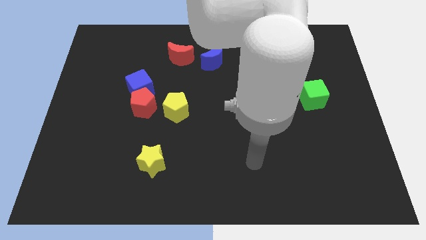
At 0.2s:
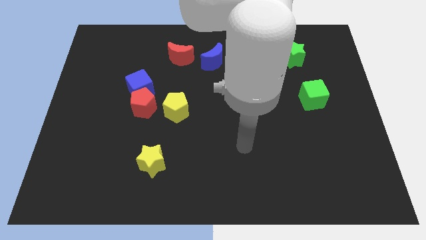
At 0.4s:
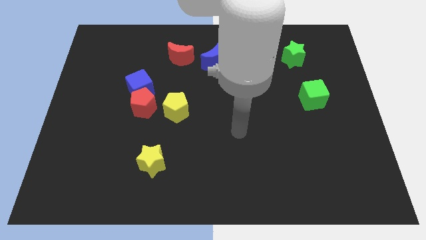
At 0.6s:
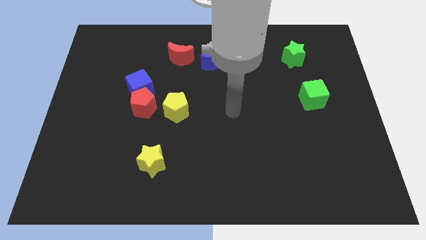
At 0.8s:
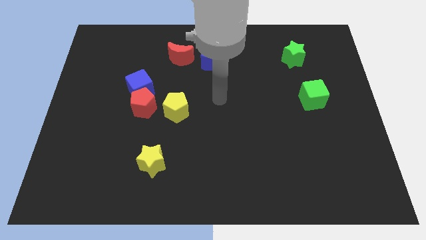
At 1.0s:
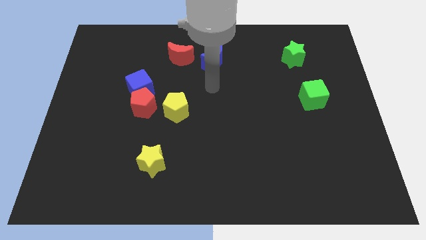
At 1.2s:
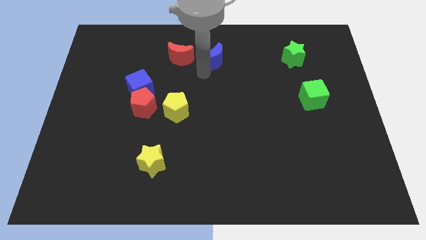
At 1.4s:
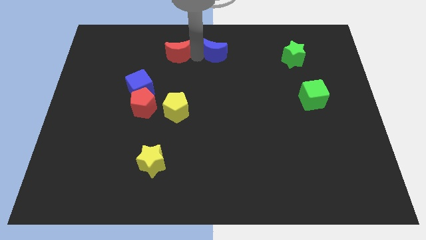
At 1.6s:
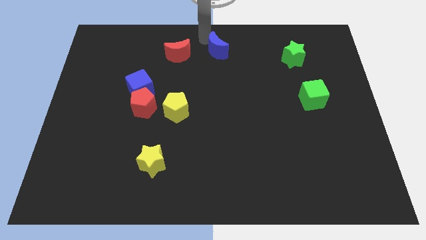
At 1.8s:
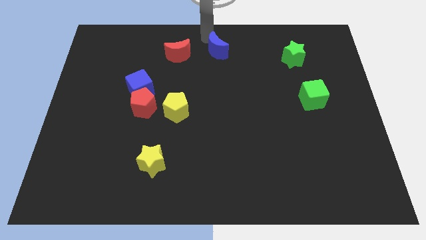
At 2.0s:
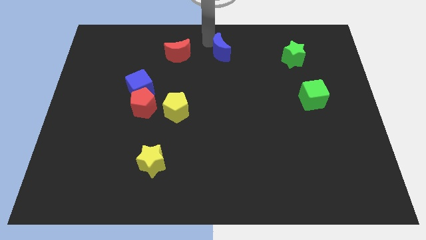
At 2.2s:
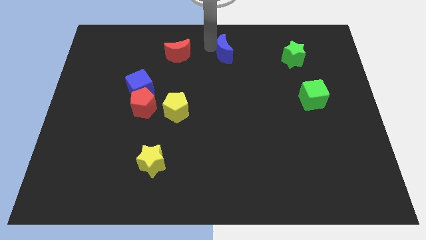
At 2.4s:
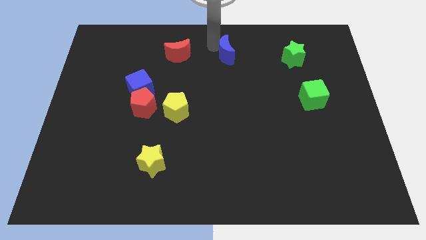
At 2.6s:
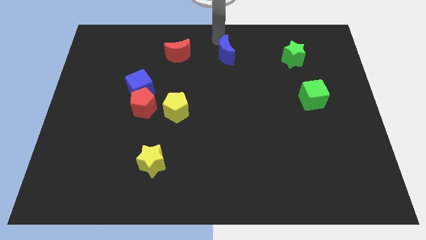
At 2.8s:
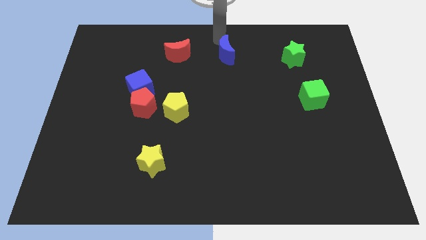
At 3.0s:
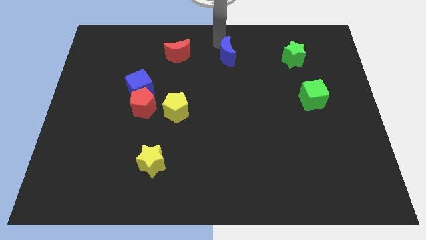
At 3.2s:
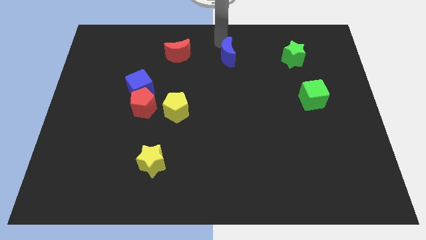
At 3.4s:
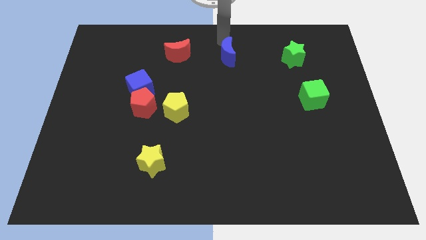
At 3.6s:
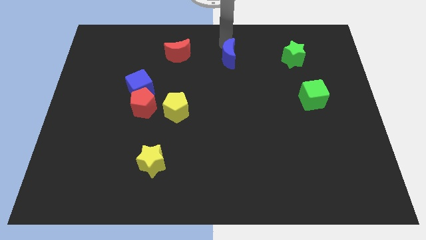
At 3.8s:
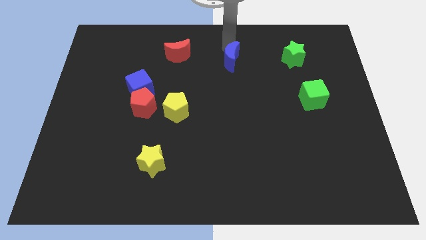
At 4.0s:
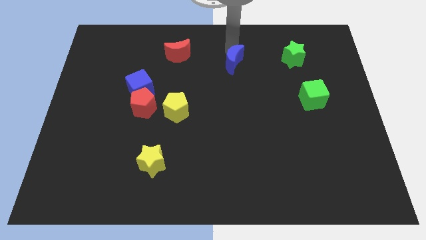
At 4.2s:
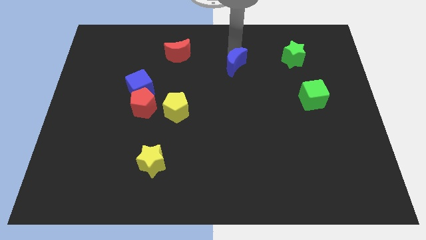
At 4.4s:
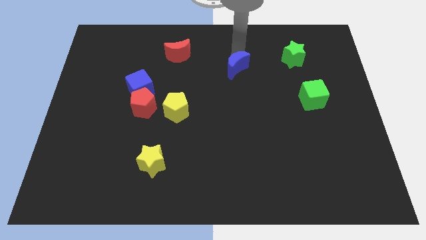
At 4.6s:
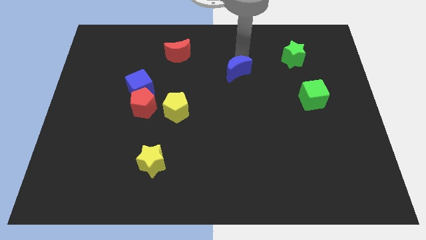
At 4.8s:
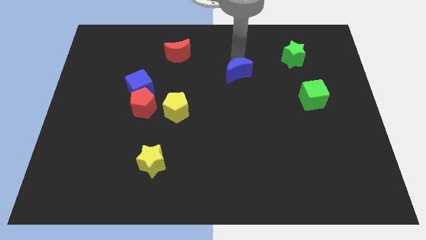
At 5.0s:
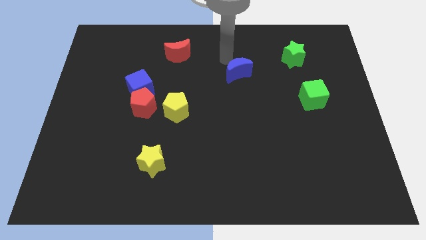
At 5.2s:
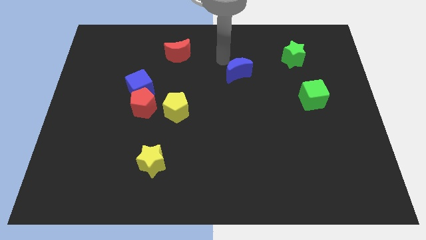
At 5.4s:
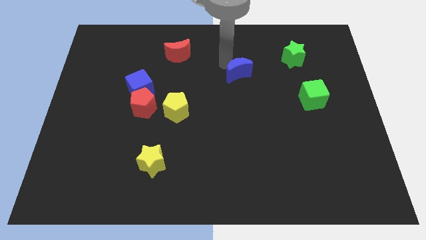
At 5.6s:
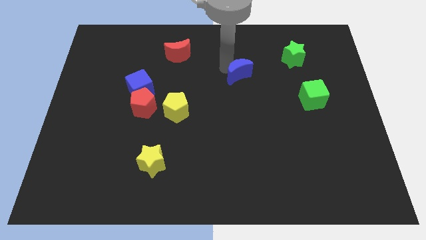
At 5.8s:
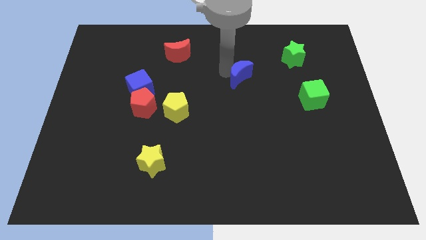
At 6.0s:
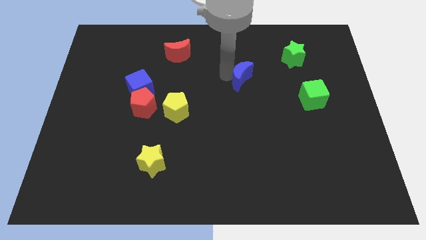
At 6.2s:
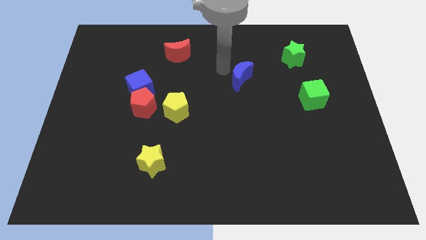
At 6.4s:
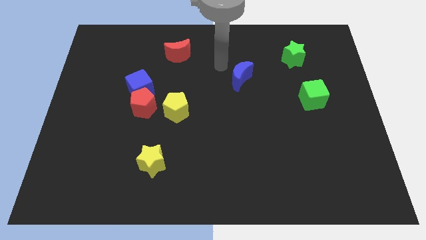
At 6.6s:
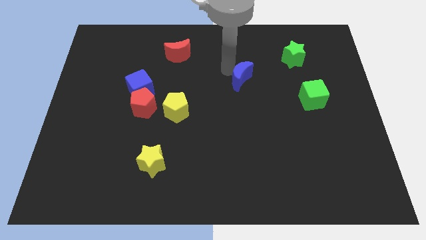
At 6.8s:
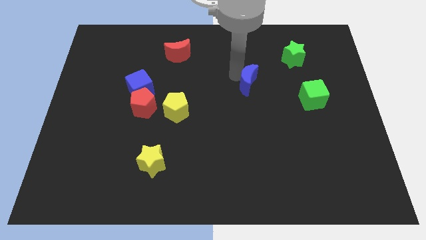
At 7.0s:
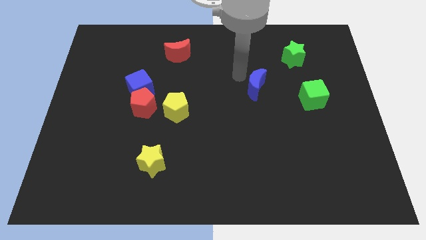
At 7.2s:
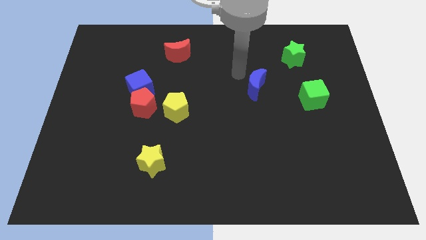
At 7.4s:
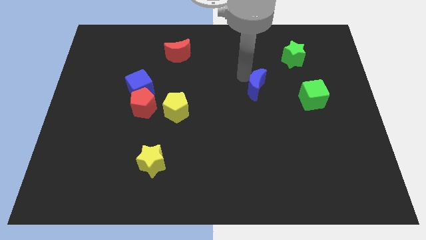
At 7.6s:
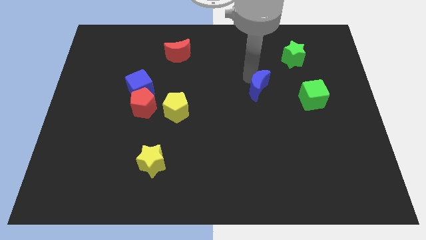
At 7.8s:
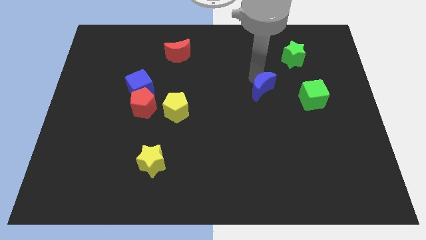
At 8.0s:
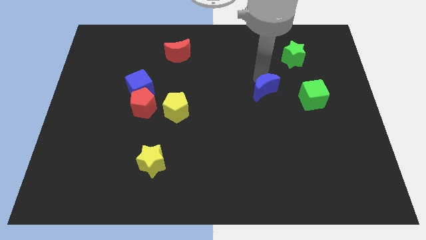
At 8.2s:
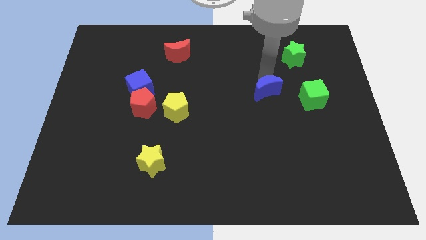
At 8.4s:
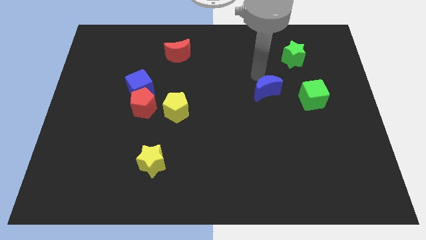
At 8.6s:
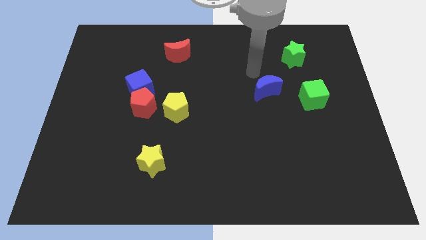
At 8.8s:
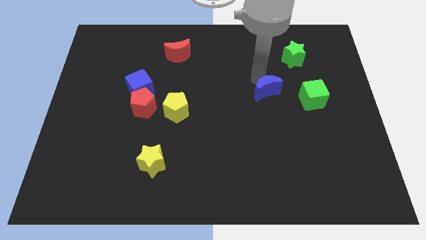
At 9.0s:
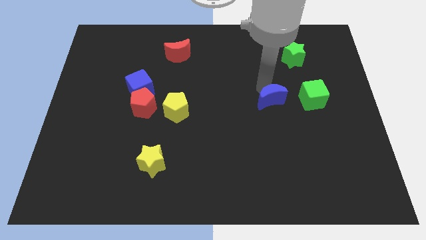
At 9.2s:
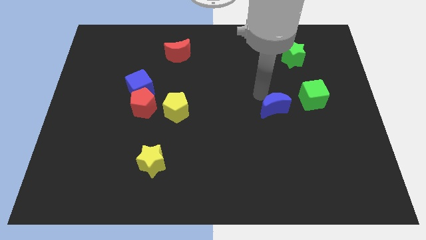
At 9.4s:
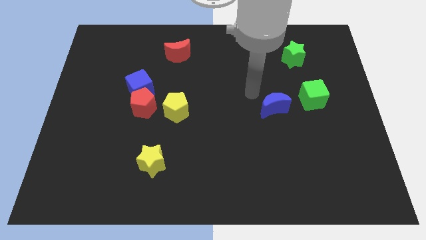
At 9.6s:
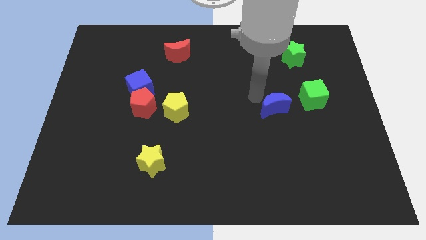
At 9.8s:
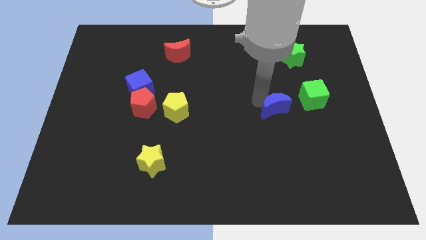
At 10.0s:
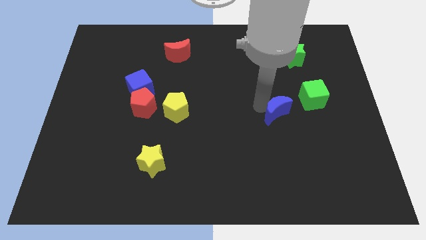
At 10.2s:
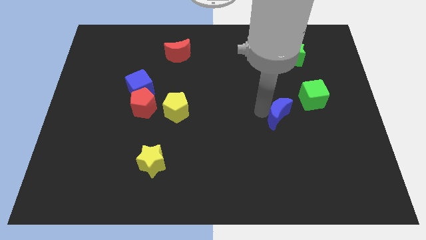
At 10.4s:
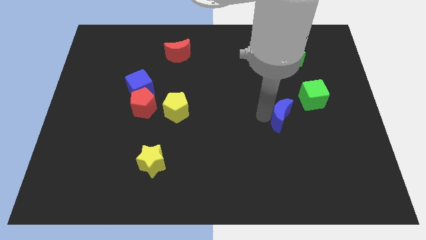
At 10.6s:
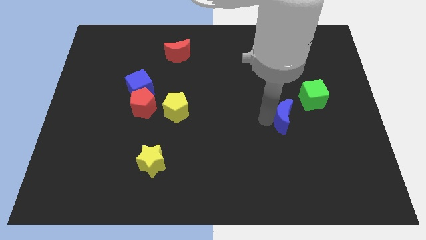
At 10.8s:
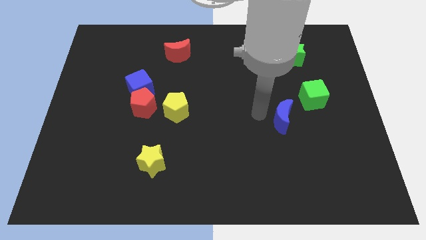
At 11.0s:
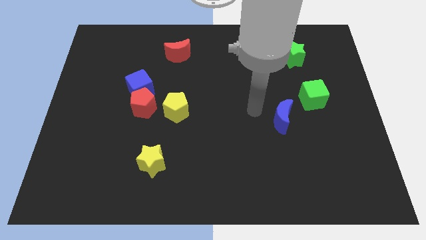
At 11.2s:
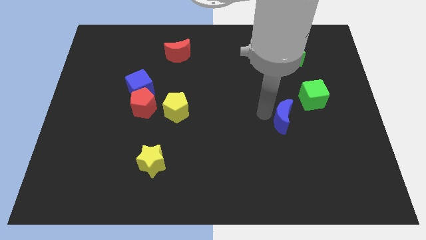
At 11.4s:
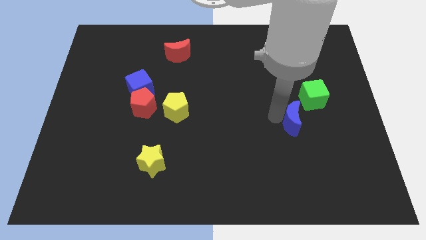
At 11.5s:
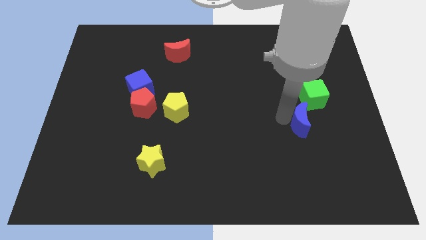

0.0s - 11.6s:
push the blue moon to the bottom of the green cube

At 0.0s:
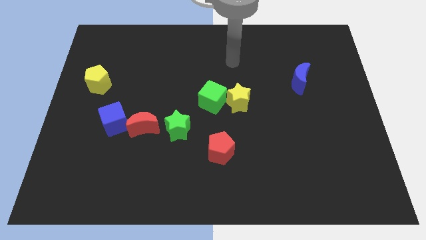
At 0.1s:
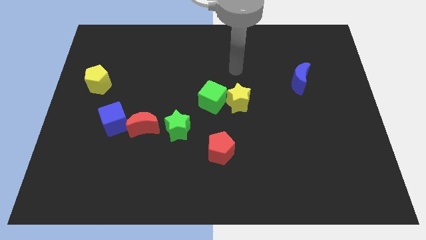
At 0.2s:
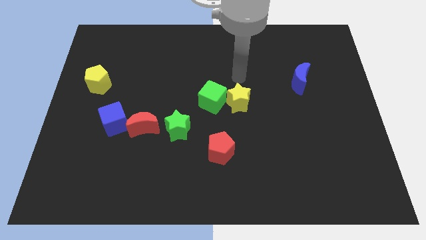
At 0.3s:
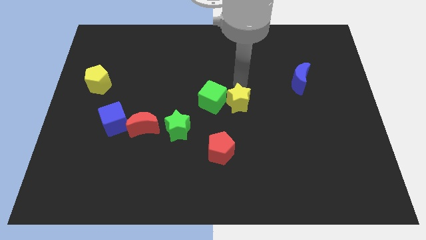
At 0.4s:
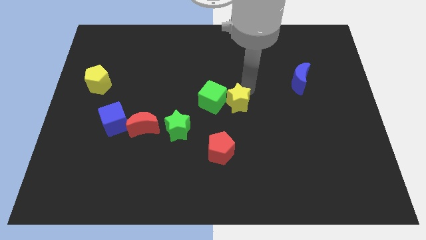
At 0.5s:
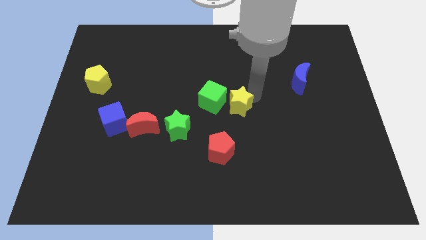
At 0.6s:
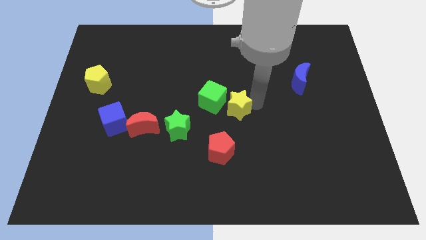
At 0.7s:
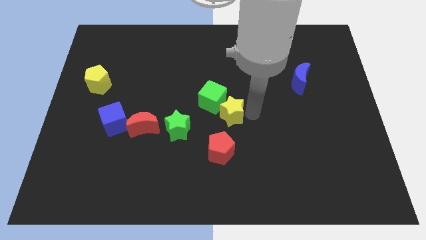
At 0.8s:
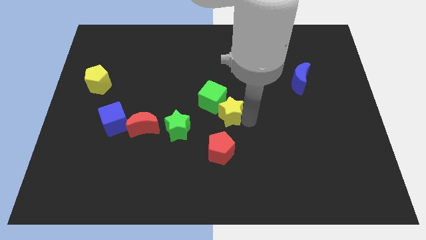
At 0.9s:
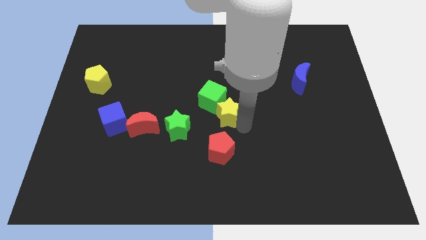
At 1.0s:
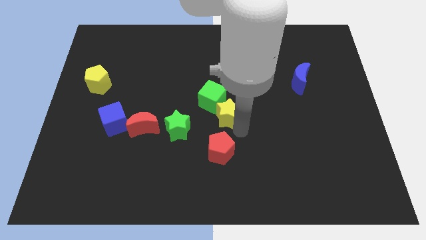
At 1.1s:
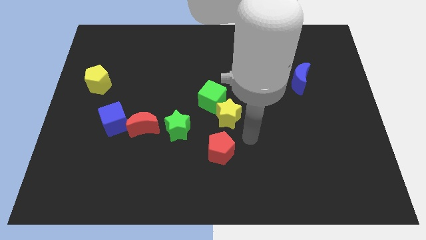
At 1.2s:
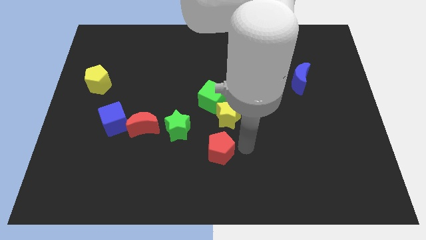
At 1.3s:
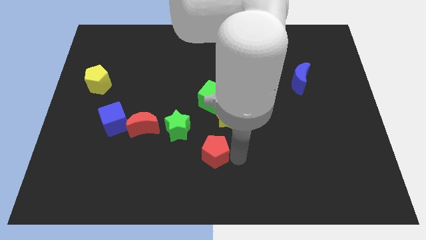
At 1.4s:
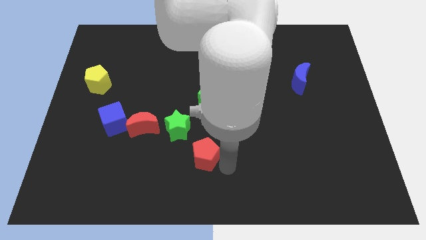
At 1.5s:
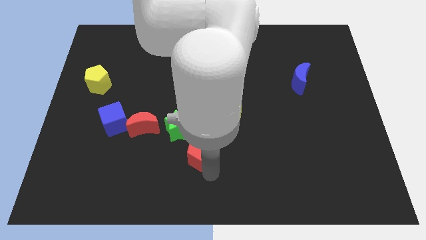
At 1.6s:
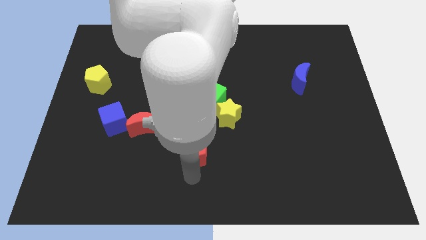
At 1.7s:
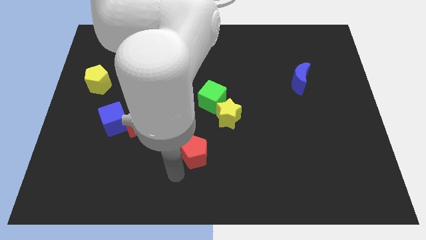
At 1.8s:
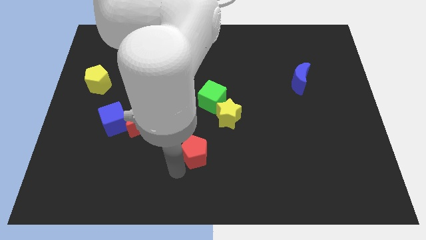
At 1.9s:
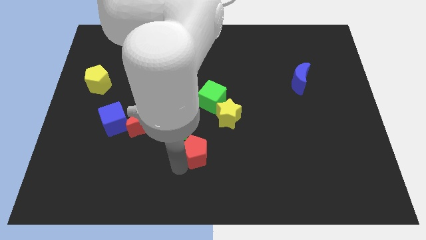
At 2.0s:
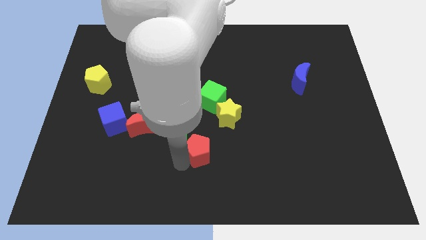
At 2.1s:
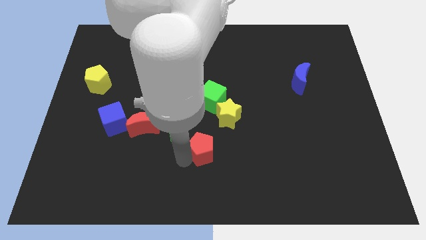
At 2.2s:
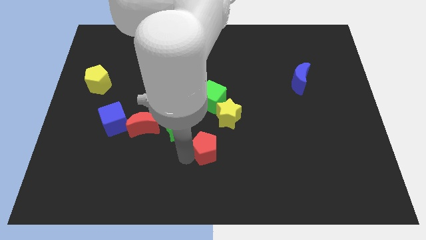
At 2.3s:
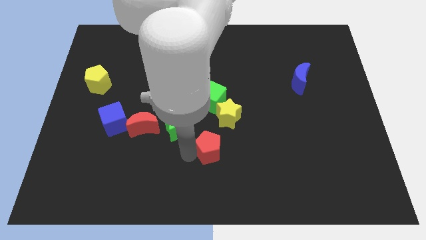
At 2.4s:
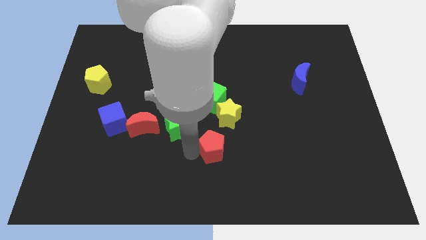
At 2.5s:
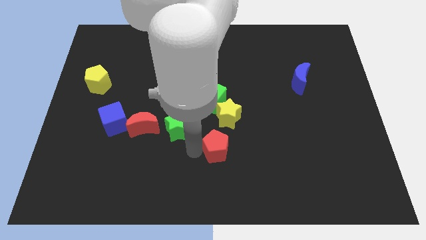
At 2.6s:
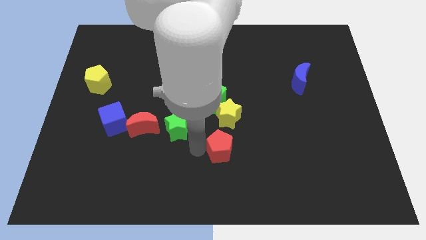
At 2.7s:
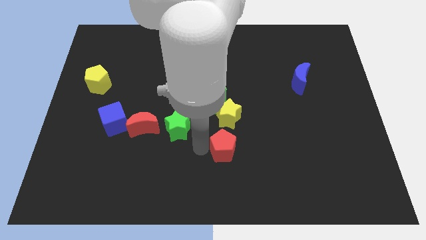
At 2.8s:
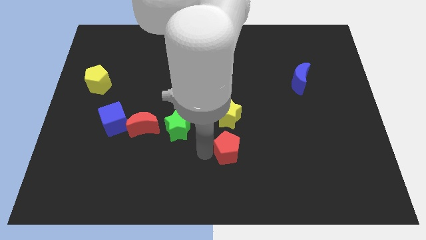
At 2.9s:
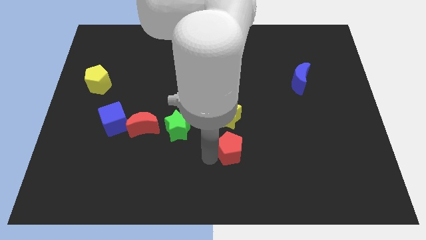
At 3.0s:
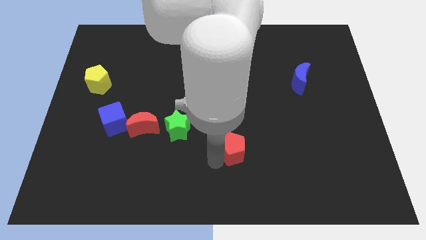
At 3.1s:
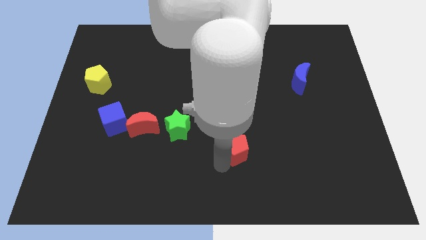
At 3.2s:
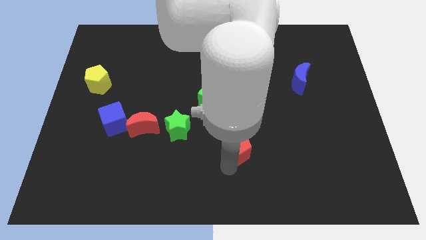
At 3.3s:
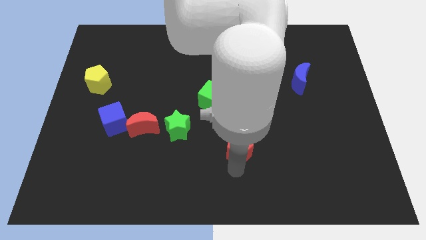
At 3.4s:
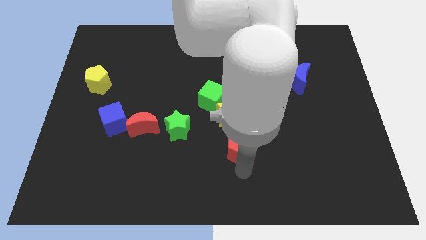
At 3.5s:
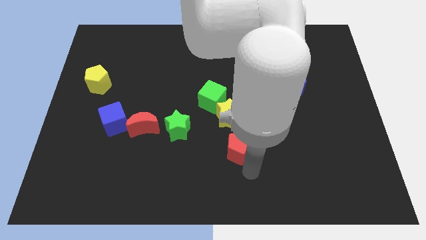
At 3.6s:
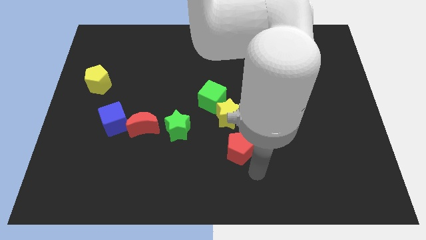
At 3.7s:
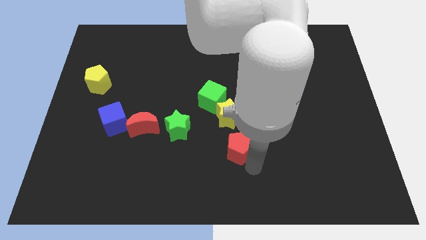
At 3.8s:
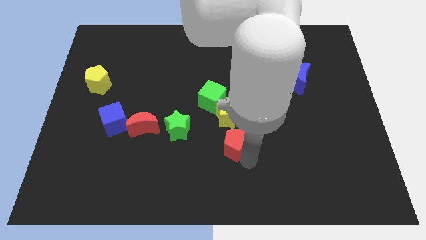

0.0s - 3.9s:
push the red pentagon to the right side of the green star
